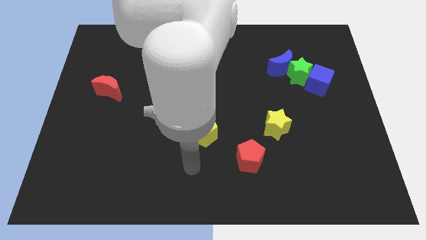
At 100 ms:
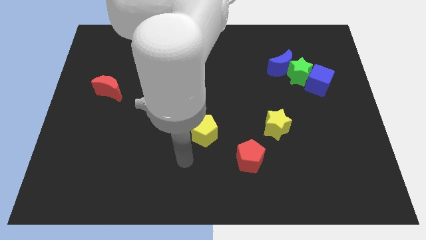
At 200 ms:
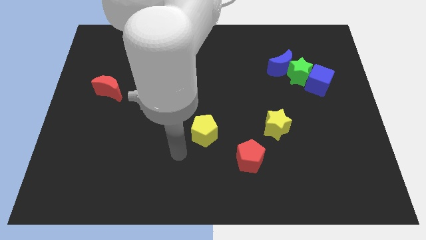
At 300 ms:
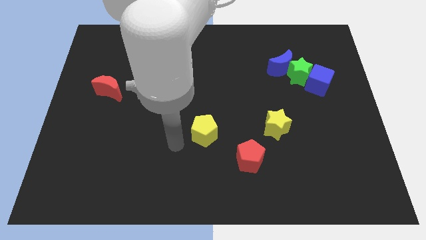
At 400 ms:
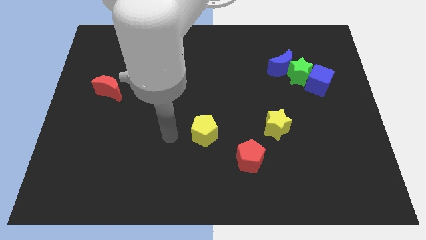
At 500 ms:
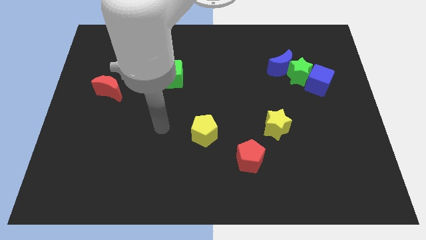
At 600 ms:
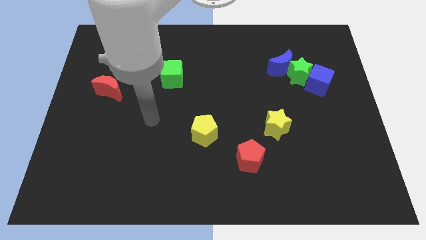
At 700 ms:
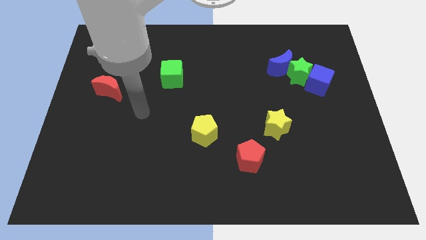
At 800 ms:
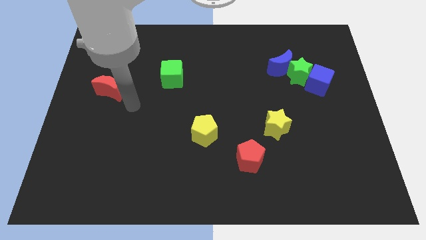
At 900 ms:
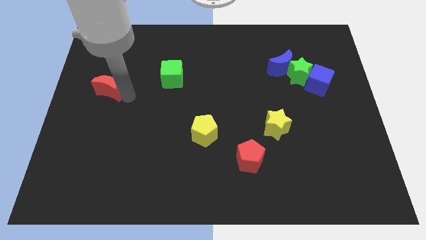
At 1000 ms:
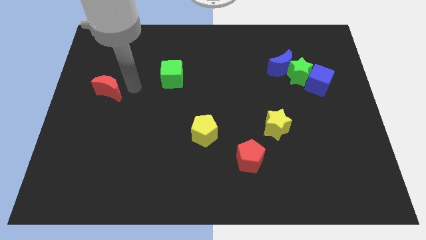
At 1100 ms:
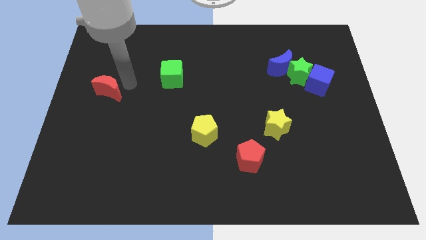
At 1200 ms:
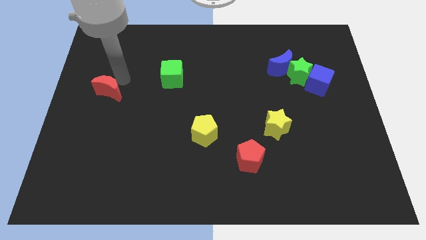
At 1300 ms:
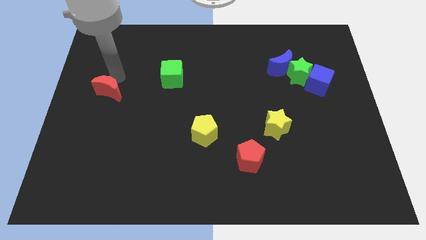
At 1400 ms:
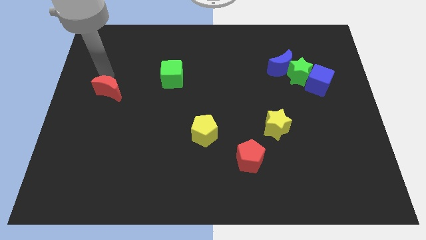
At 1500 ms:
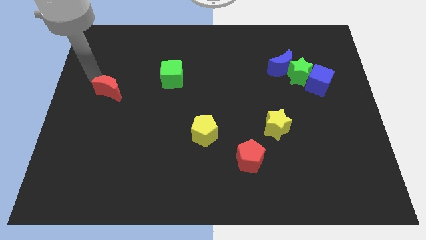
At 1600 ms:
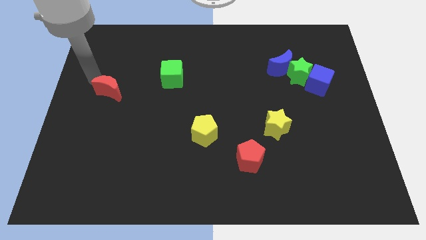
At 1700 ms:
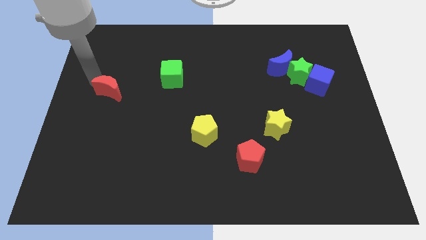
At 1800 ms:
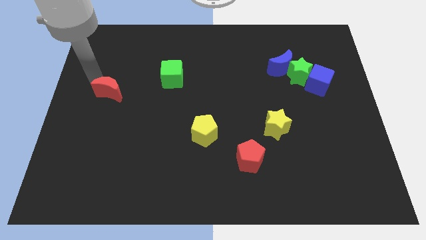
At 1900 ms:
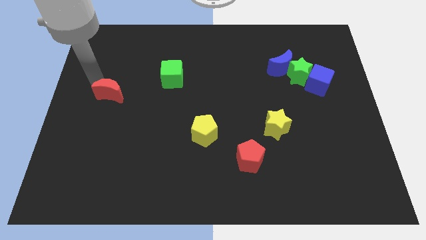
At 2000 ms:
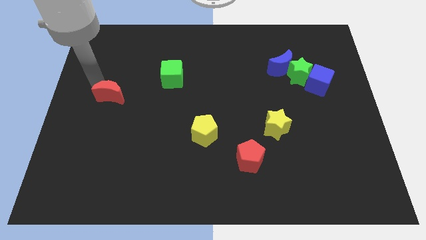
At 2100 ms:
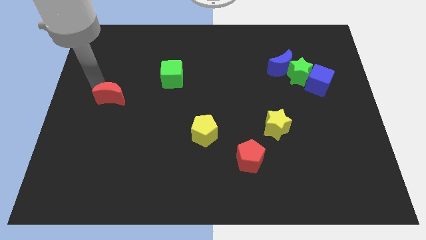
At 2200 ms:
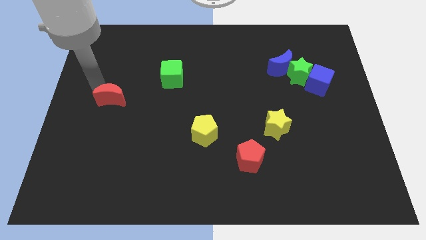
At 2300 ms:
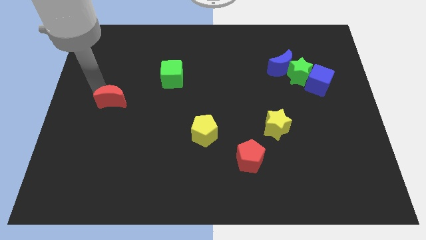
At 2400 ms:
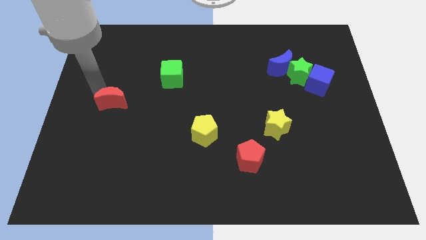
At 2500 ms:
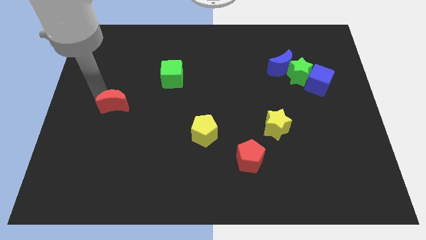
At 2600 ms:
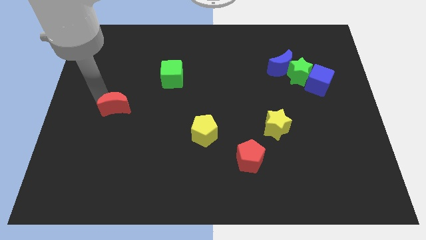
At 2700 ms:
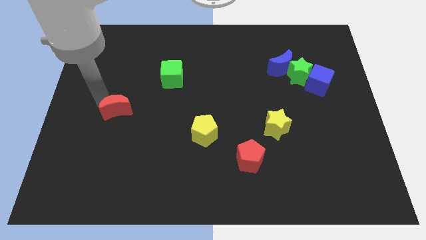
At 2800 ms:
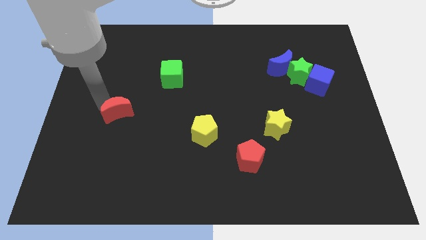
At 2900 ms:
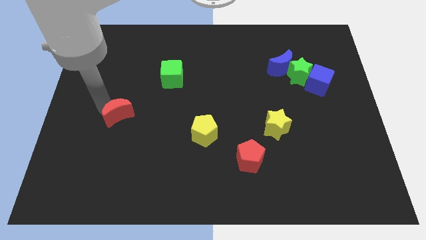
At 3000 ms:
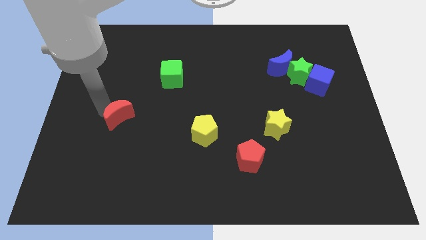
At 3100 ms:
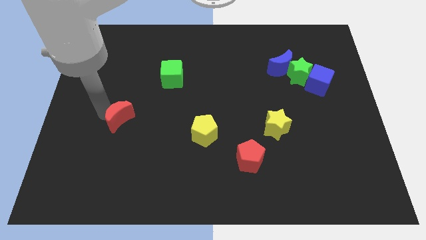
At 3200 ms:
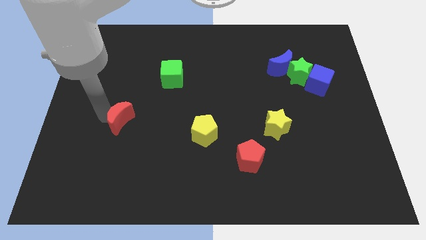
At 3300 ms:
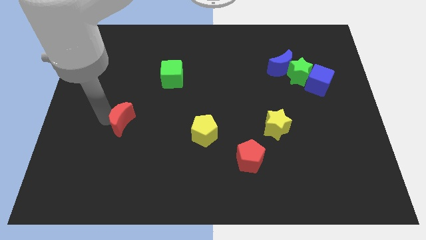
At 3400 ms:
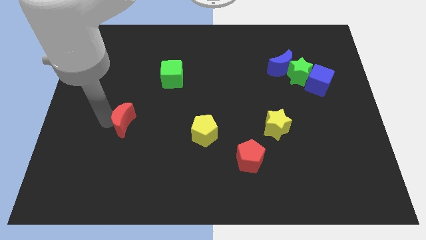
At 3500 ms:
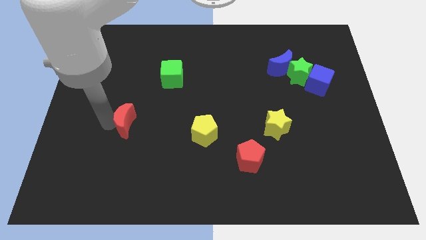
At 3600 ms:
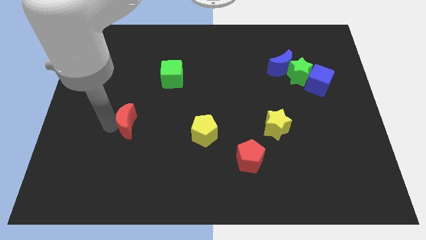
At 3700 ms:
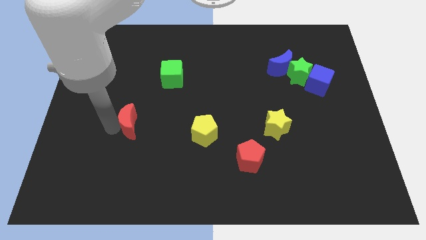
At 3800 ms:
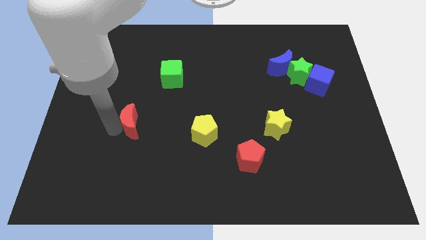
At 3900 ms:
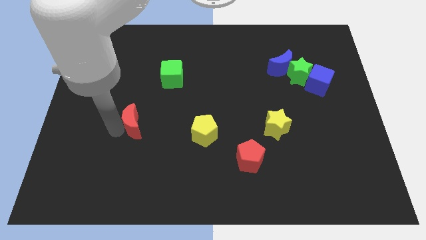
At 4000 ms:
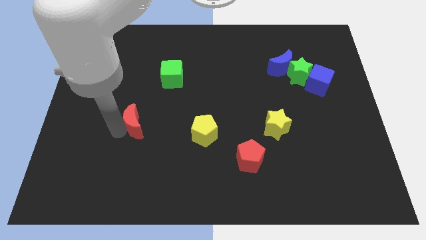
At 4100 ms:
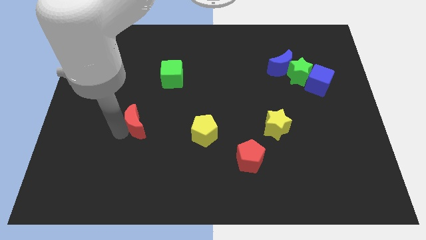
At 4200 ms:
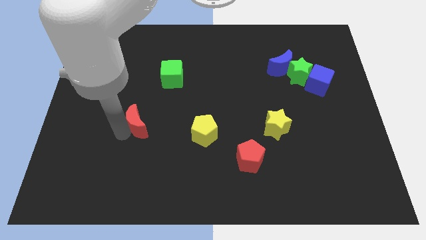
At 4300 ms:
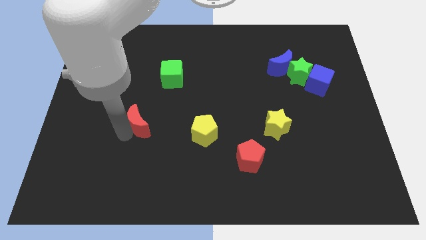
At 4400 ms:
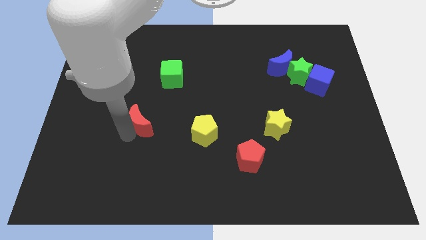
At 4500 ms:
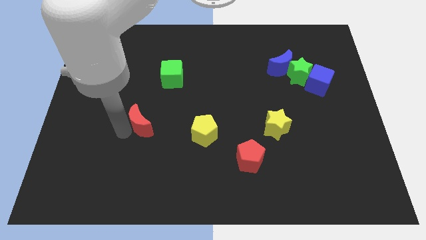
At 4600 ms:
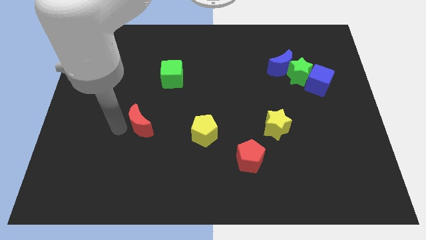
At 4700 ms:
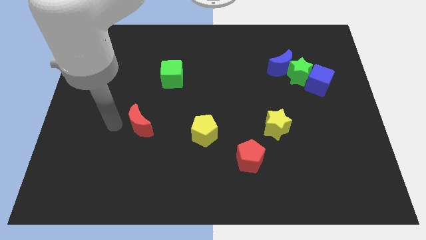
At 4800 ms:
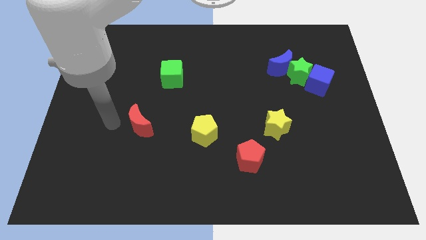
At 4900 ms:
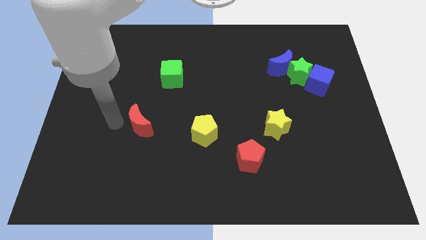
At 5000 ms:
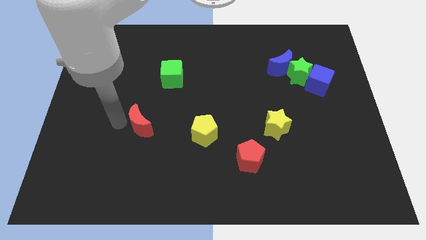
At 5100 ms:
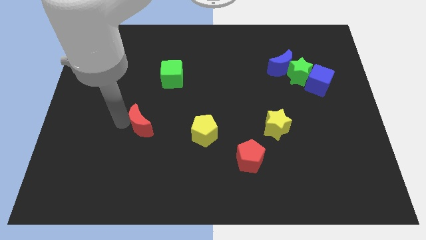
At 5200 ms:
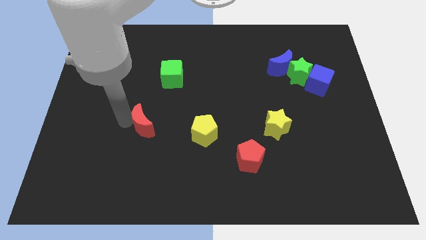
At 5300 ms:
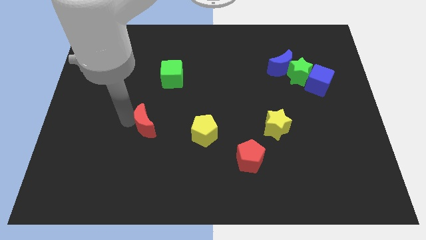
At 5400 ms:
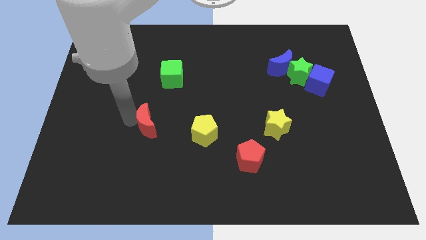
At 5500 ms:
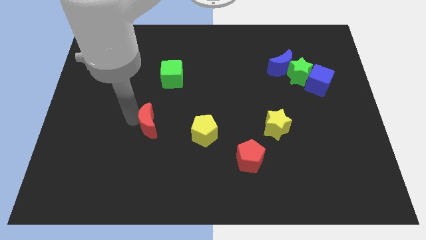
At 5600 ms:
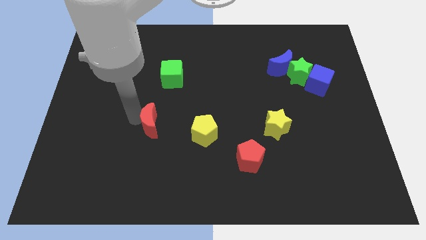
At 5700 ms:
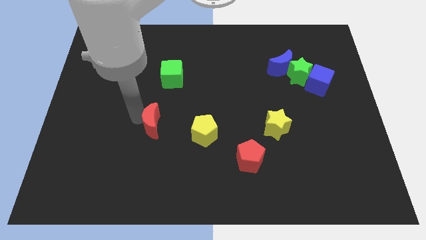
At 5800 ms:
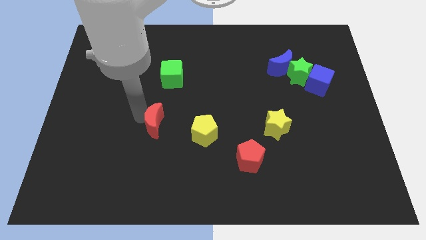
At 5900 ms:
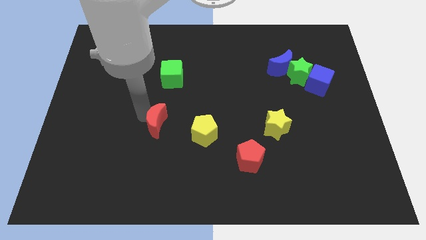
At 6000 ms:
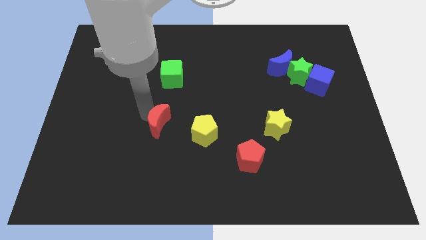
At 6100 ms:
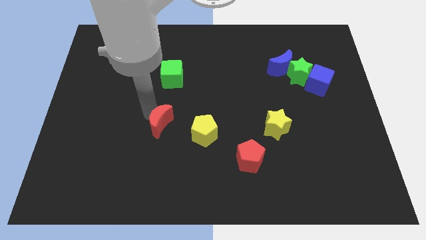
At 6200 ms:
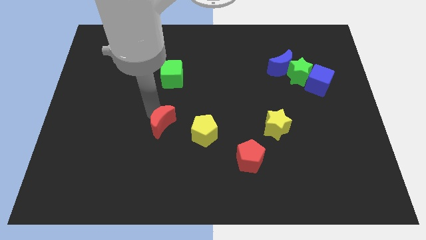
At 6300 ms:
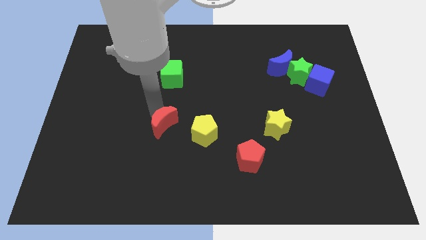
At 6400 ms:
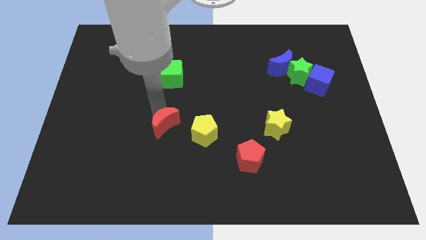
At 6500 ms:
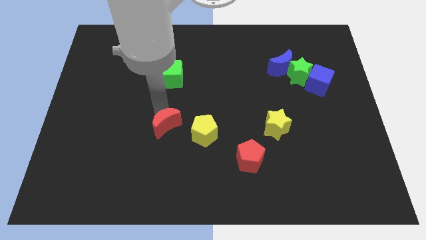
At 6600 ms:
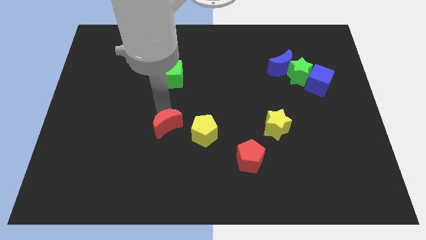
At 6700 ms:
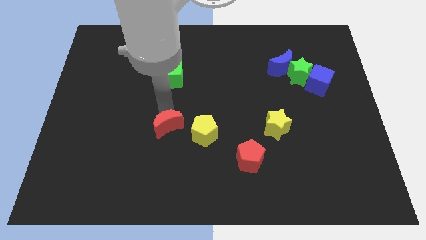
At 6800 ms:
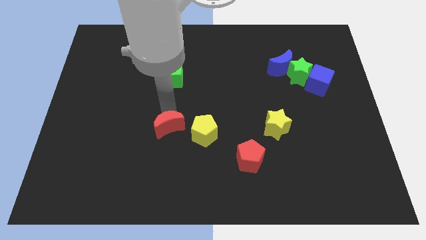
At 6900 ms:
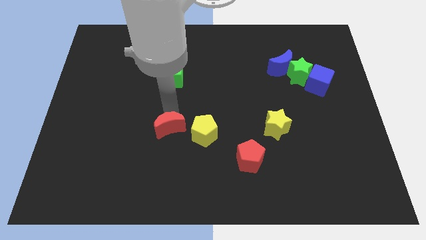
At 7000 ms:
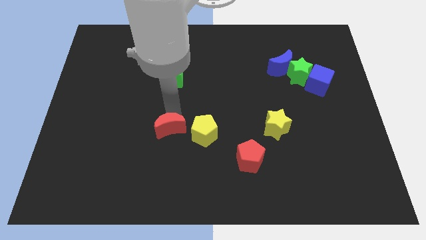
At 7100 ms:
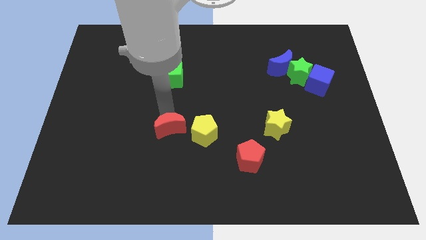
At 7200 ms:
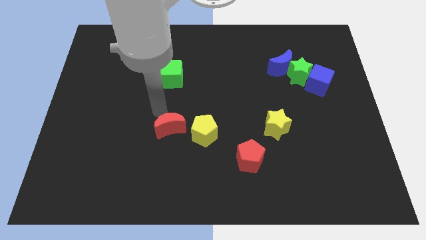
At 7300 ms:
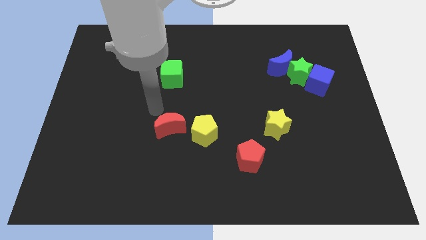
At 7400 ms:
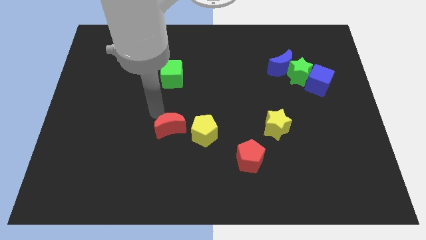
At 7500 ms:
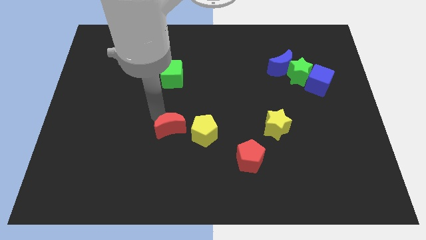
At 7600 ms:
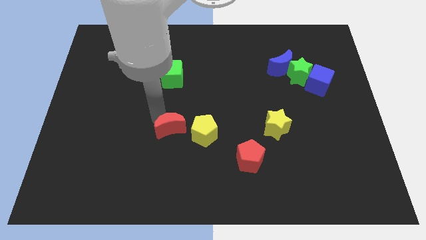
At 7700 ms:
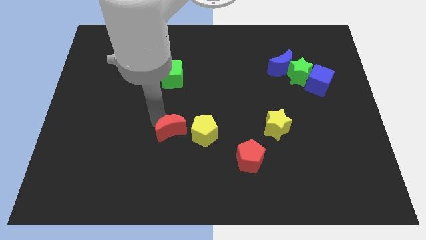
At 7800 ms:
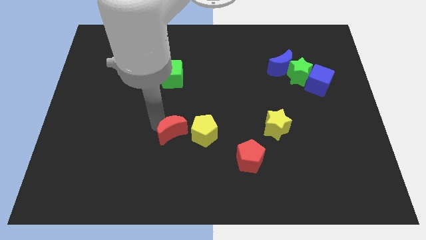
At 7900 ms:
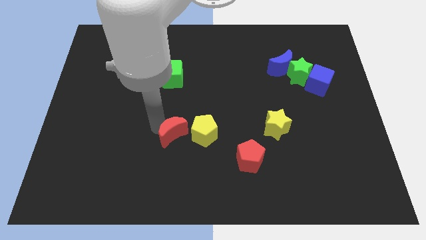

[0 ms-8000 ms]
move the red moon downwards and to the right diagonally

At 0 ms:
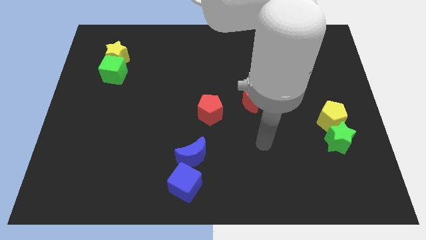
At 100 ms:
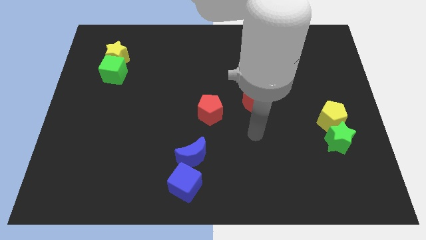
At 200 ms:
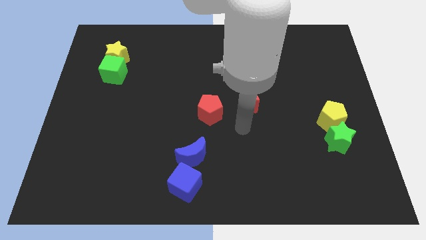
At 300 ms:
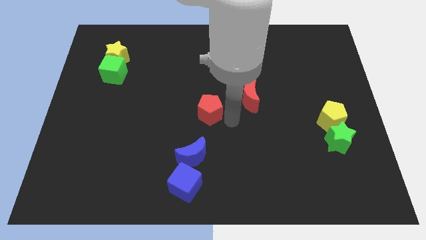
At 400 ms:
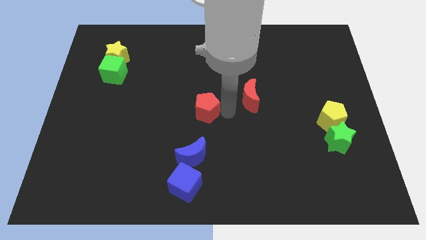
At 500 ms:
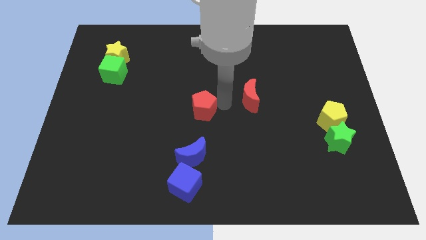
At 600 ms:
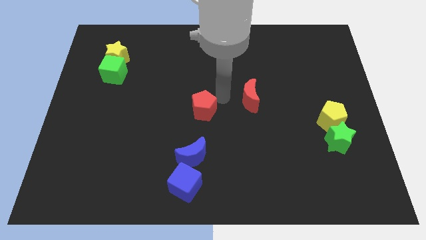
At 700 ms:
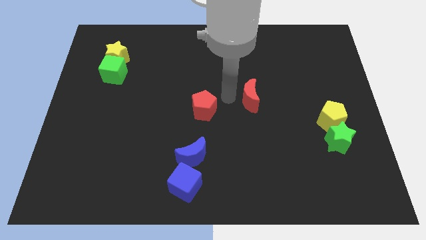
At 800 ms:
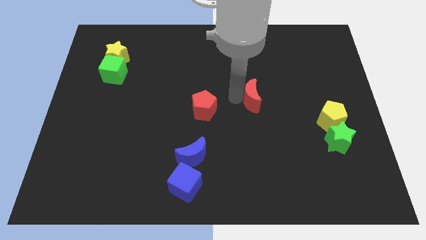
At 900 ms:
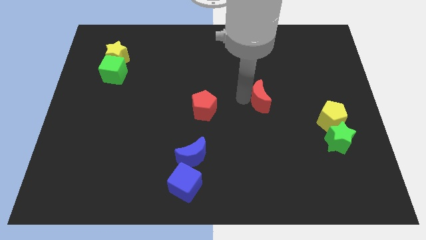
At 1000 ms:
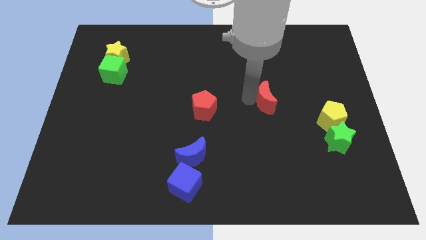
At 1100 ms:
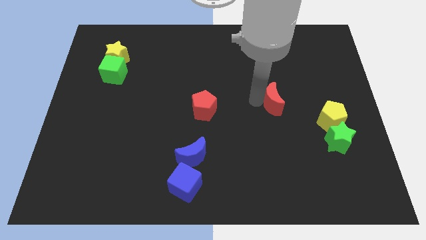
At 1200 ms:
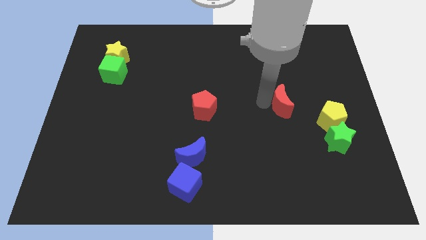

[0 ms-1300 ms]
move the red moon right somewhat
